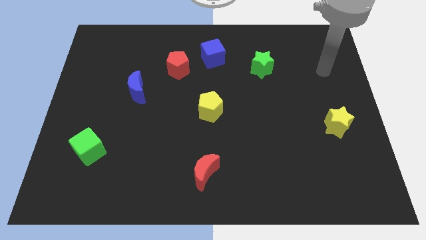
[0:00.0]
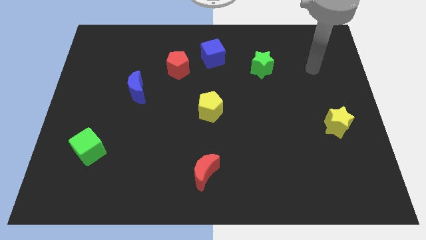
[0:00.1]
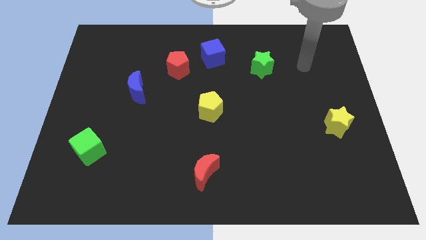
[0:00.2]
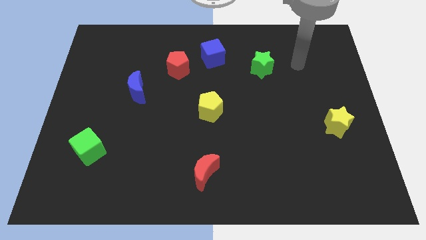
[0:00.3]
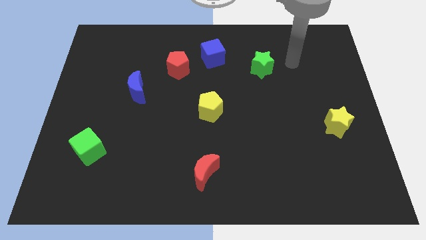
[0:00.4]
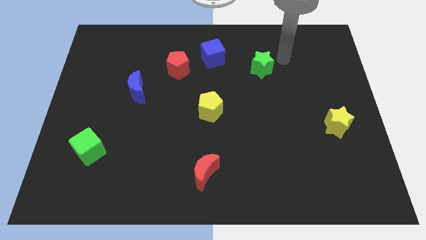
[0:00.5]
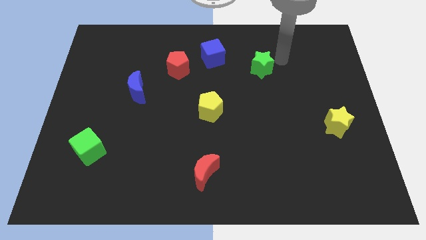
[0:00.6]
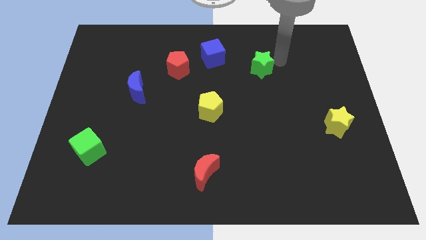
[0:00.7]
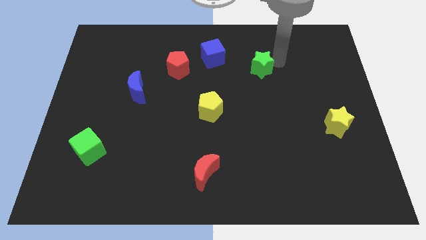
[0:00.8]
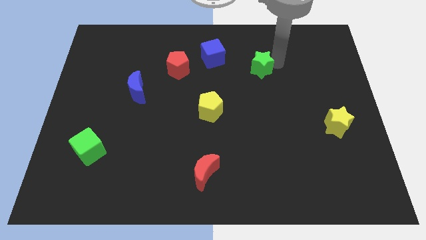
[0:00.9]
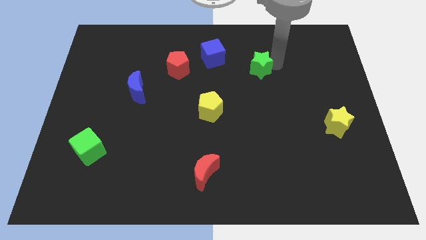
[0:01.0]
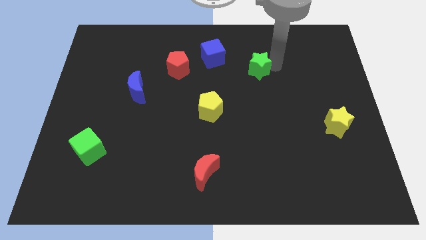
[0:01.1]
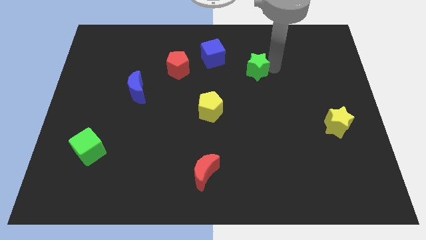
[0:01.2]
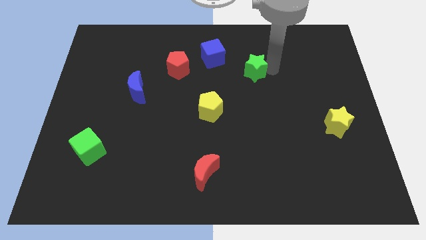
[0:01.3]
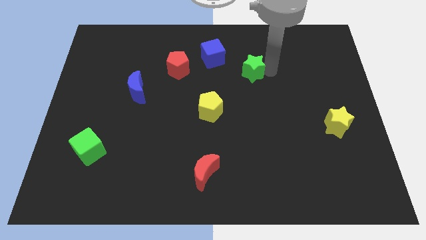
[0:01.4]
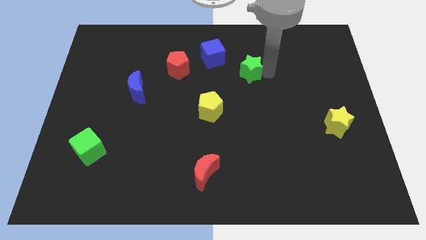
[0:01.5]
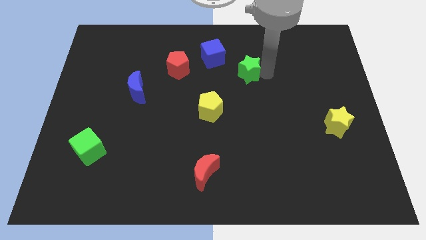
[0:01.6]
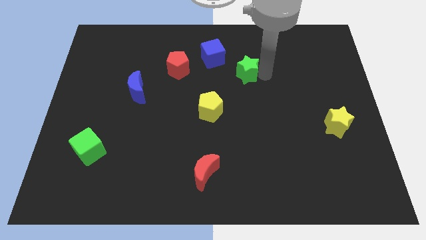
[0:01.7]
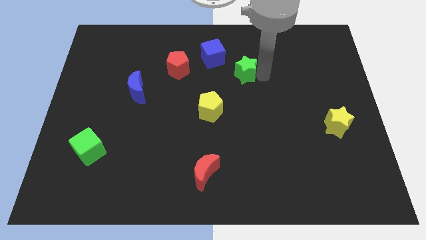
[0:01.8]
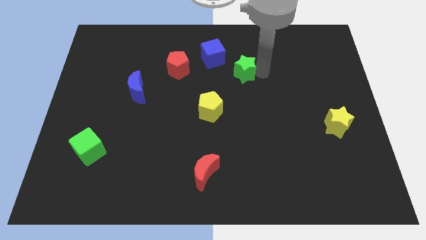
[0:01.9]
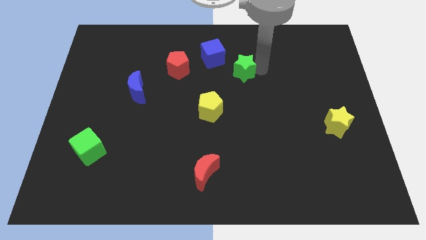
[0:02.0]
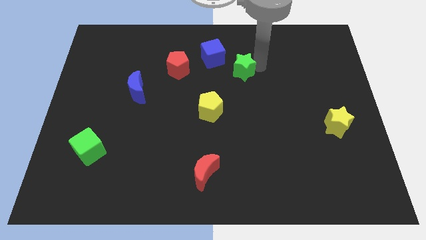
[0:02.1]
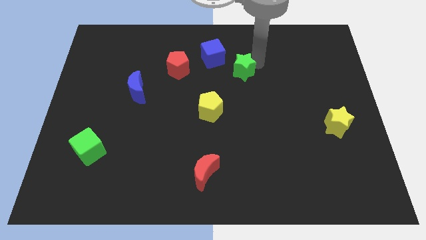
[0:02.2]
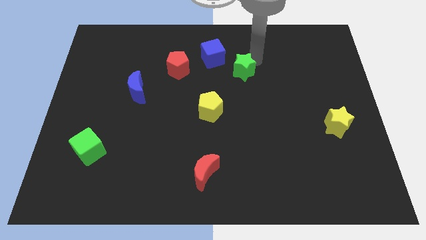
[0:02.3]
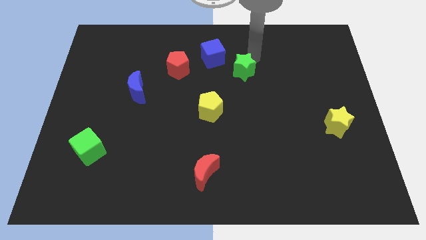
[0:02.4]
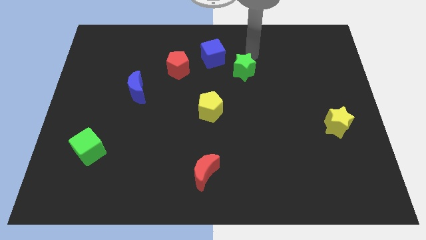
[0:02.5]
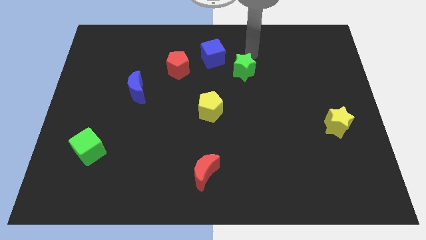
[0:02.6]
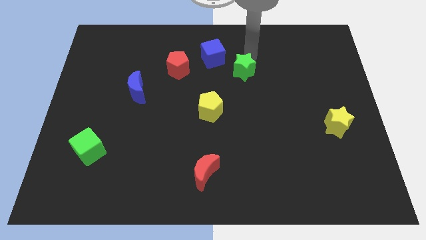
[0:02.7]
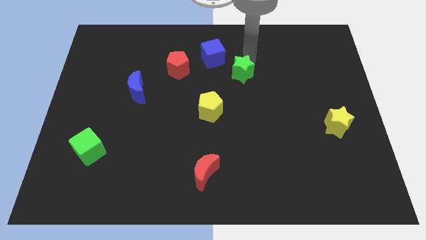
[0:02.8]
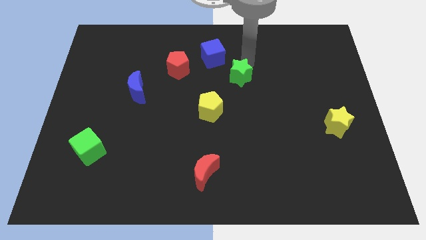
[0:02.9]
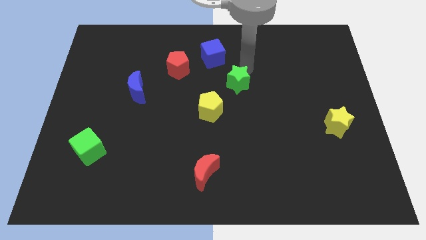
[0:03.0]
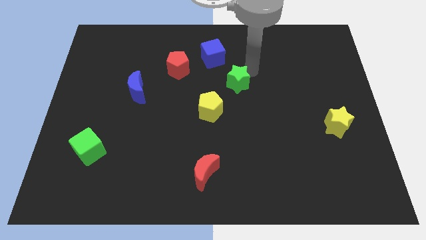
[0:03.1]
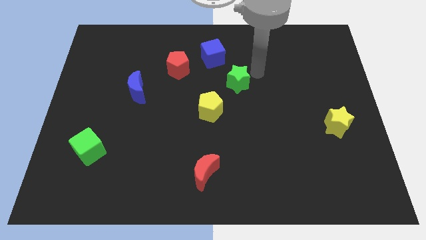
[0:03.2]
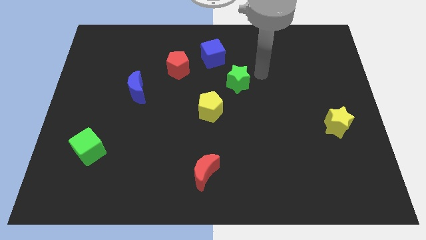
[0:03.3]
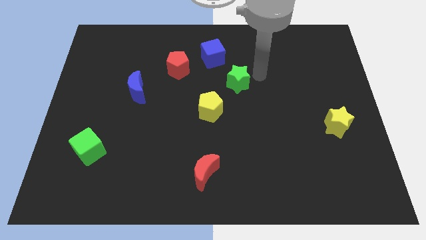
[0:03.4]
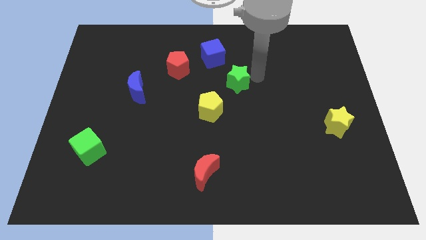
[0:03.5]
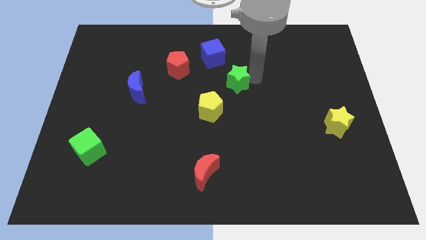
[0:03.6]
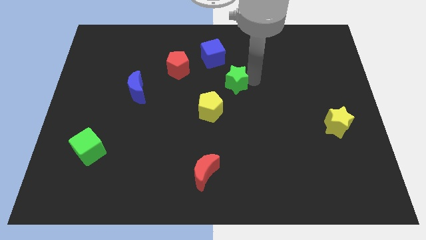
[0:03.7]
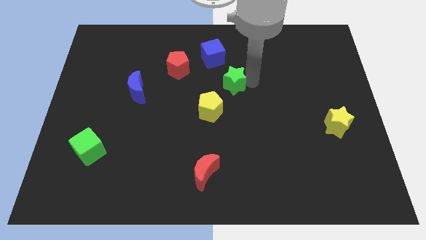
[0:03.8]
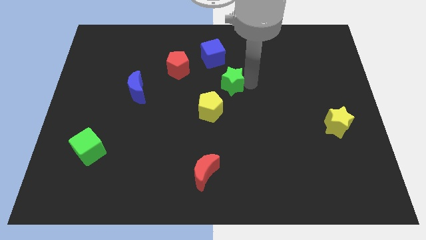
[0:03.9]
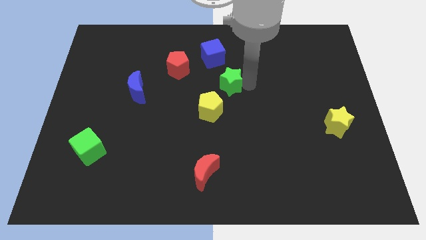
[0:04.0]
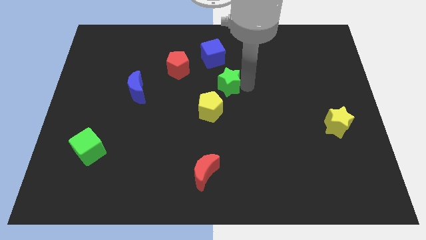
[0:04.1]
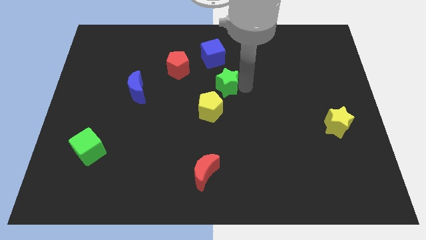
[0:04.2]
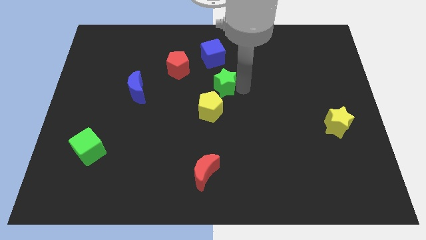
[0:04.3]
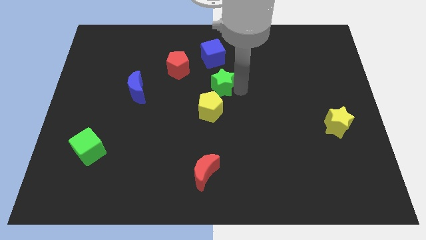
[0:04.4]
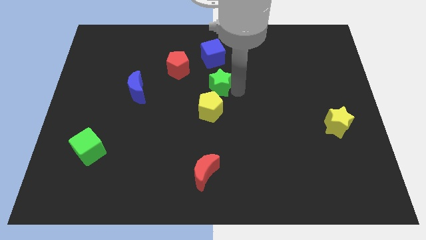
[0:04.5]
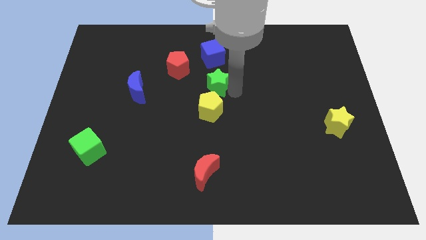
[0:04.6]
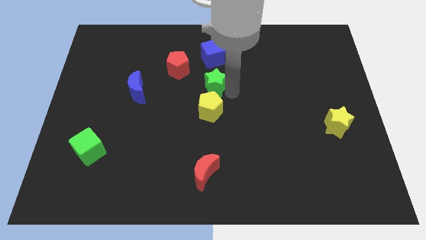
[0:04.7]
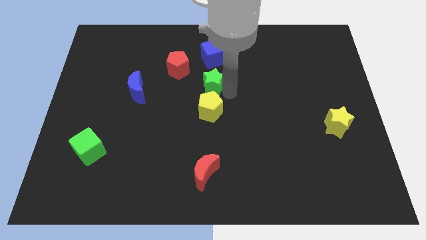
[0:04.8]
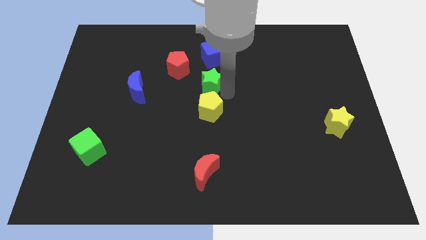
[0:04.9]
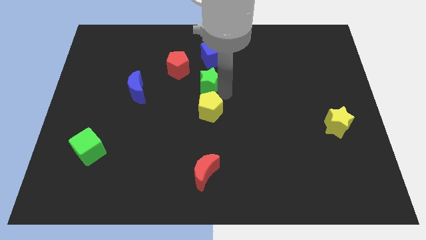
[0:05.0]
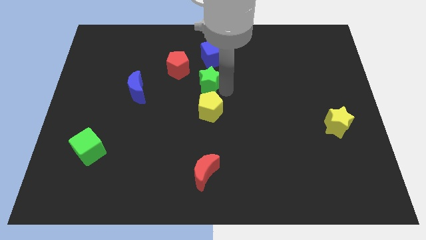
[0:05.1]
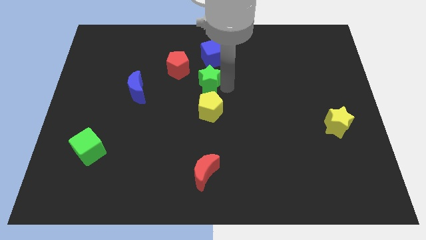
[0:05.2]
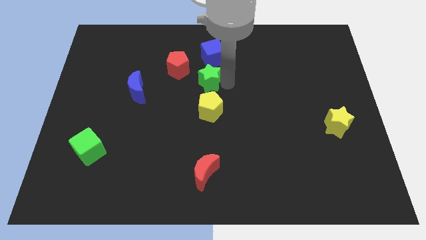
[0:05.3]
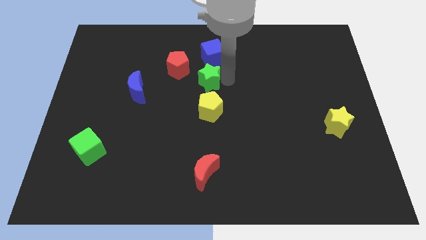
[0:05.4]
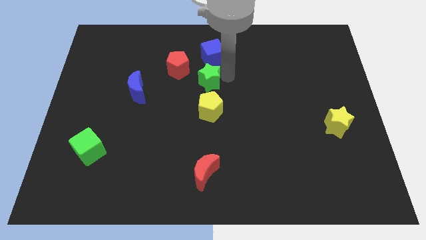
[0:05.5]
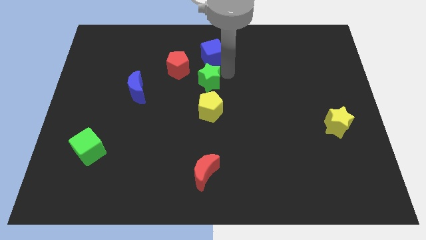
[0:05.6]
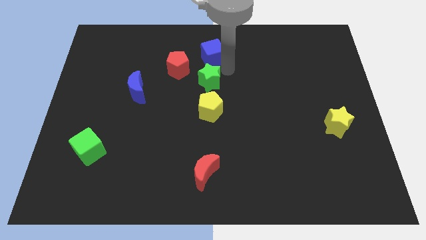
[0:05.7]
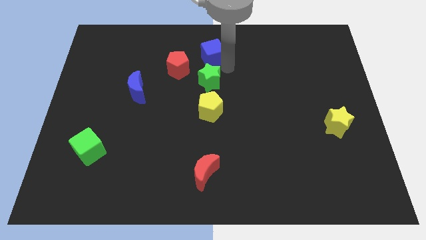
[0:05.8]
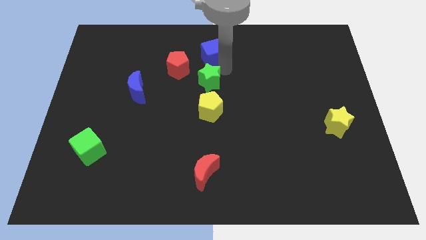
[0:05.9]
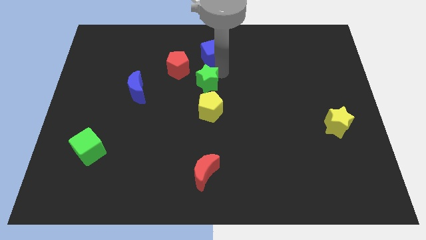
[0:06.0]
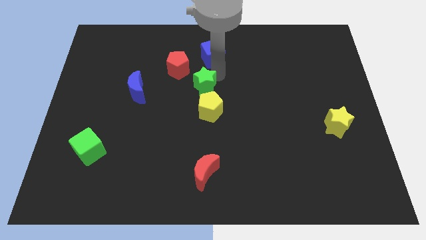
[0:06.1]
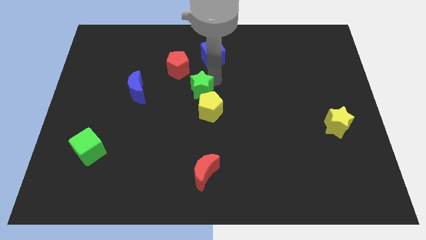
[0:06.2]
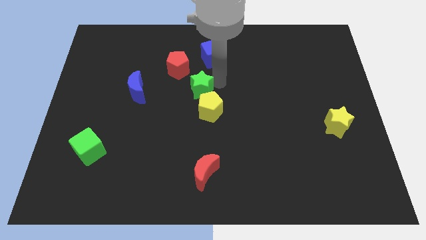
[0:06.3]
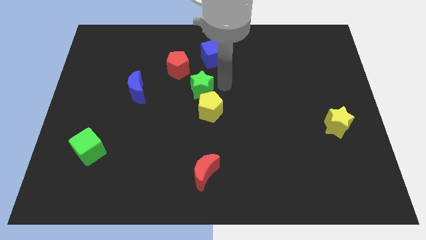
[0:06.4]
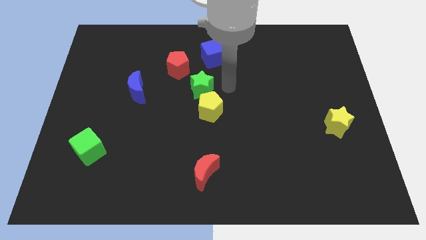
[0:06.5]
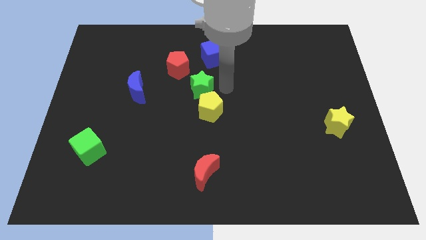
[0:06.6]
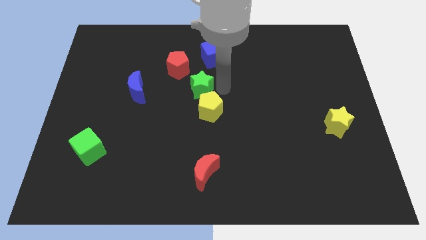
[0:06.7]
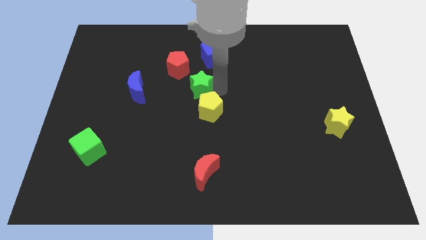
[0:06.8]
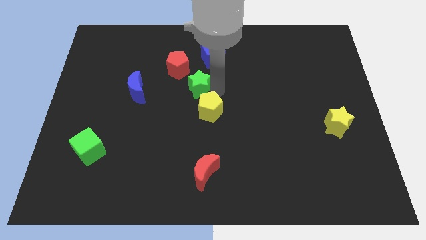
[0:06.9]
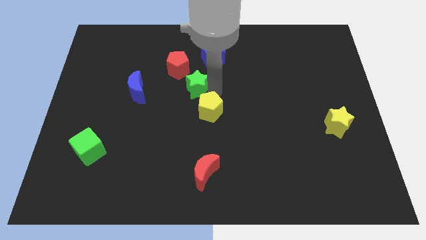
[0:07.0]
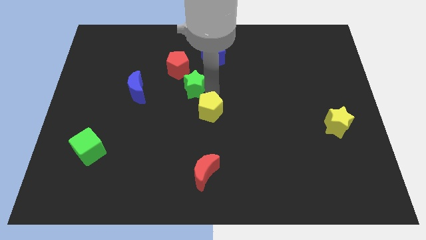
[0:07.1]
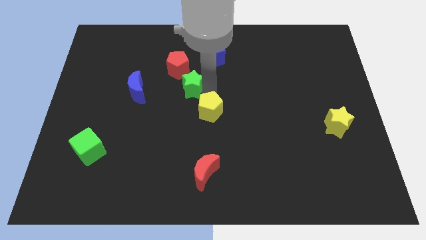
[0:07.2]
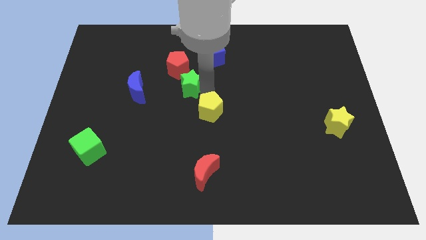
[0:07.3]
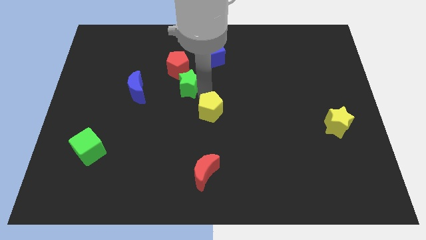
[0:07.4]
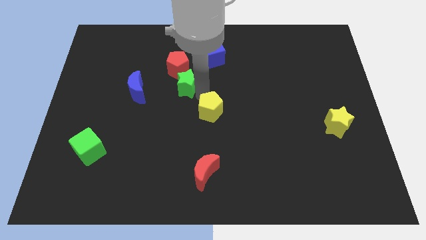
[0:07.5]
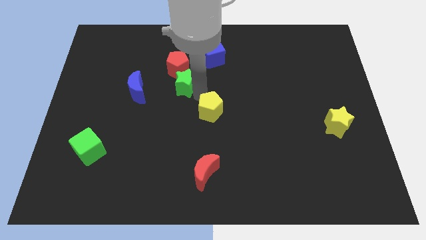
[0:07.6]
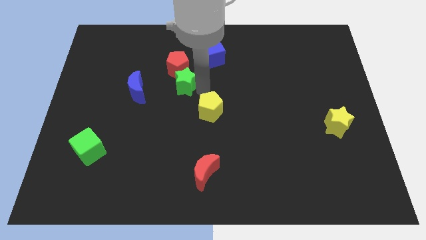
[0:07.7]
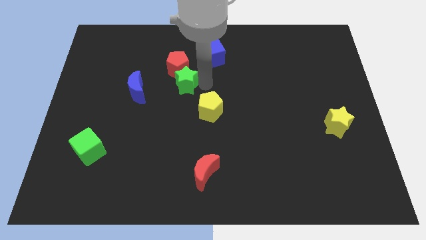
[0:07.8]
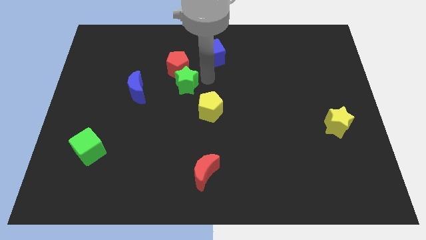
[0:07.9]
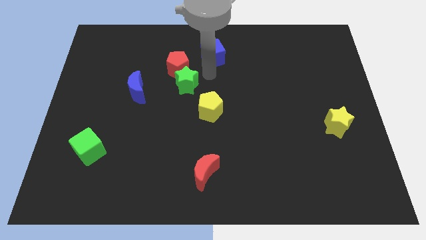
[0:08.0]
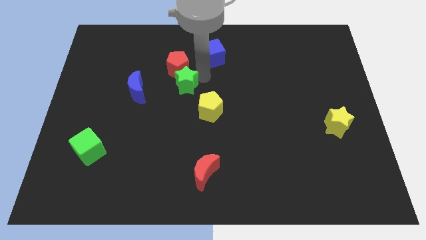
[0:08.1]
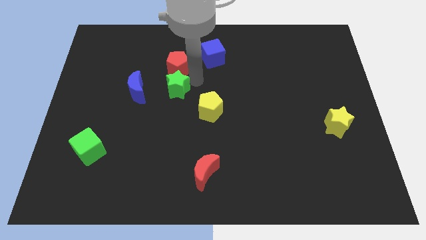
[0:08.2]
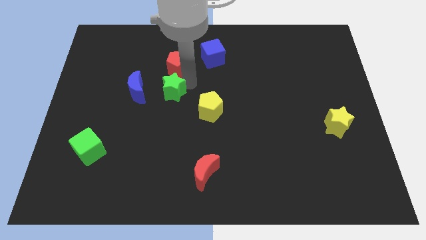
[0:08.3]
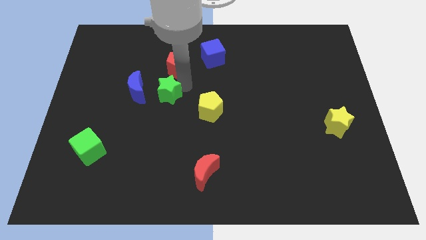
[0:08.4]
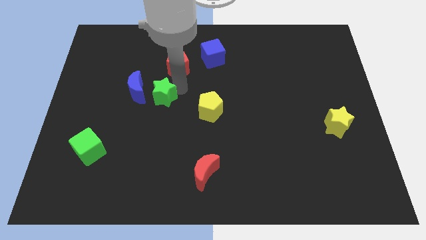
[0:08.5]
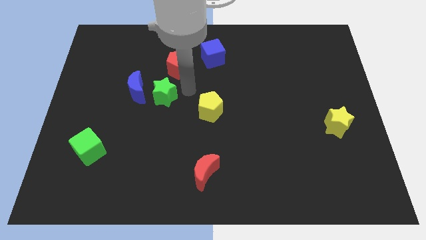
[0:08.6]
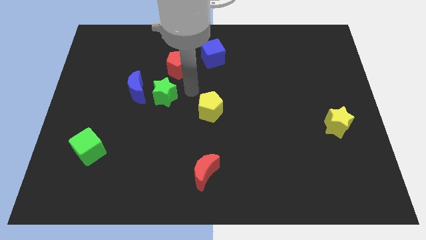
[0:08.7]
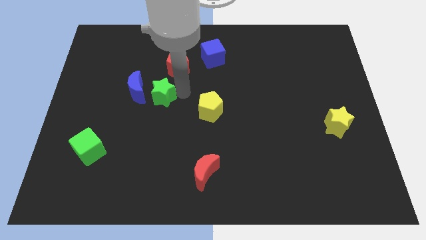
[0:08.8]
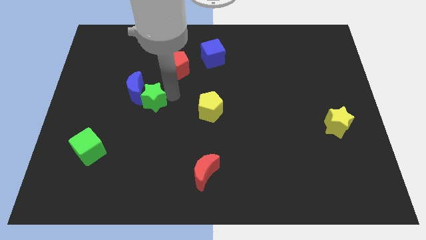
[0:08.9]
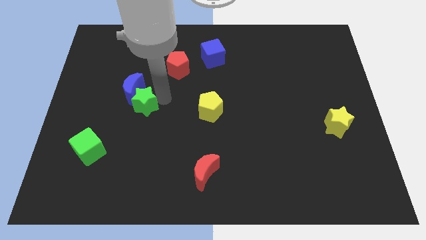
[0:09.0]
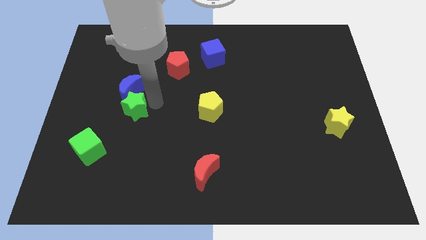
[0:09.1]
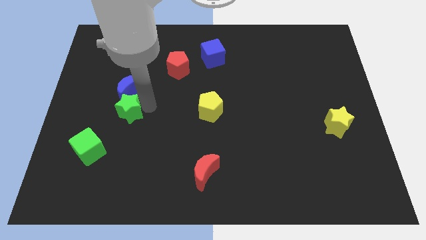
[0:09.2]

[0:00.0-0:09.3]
put the green star diagonally down and to the left of the blue moon
